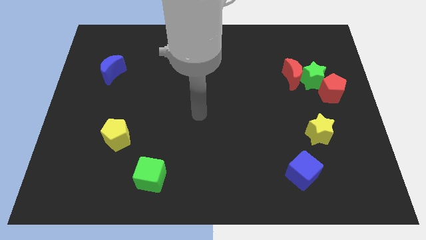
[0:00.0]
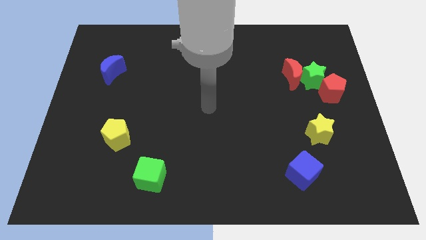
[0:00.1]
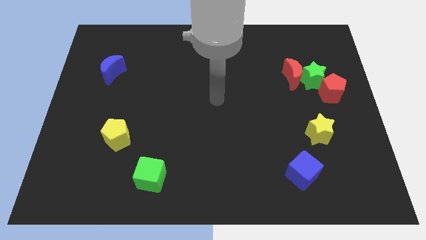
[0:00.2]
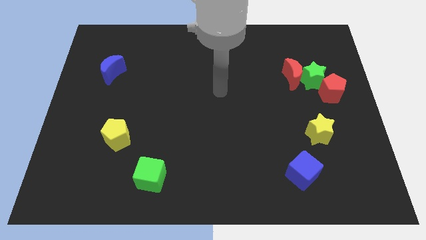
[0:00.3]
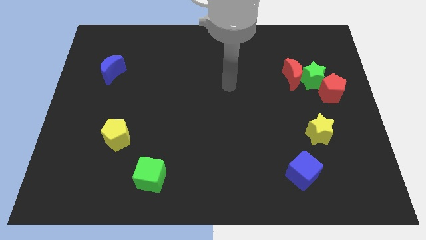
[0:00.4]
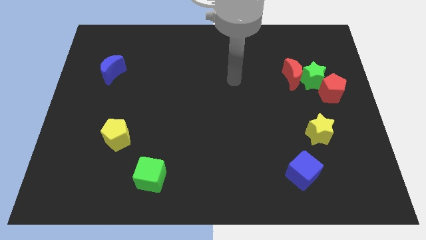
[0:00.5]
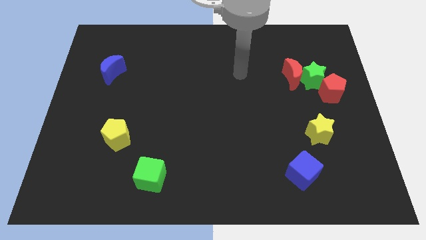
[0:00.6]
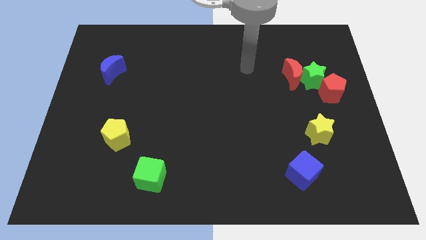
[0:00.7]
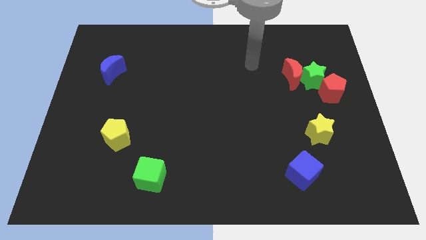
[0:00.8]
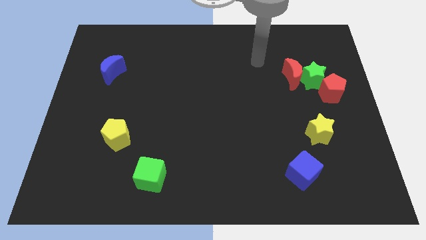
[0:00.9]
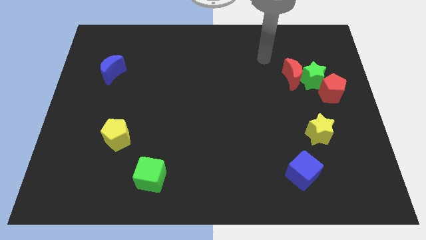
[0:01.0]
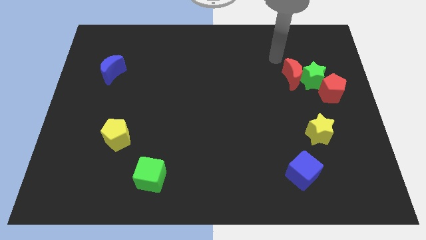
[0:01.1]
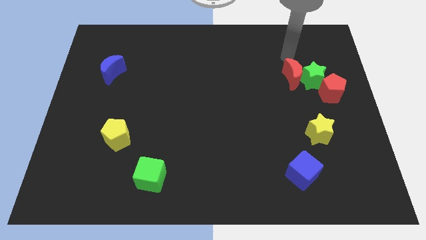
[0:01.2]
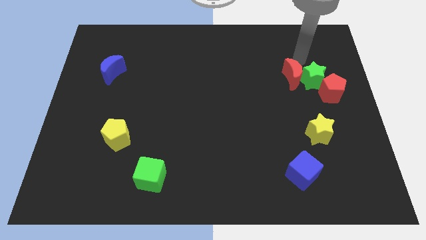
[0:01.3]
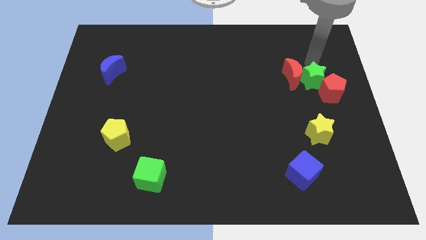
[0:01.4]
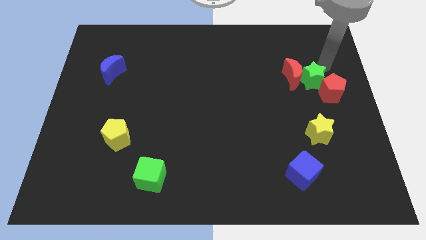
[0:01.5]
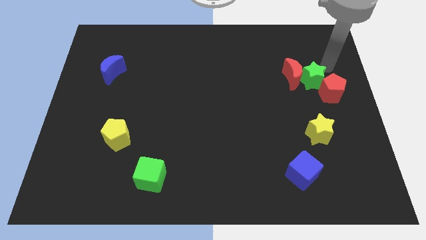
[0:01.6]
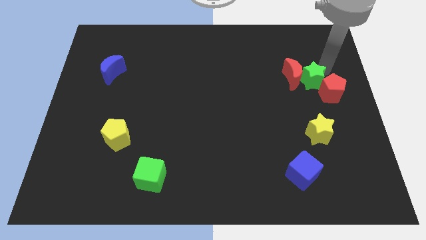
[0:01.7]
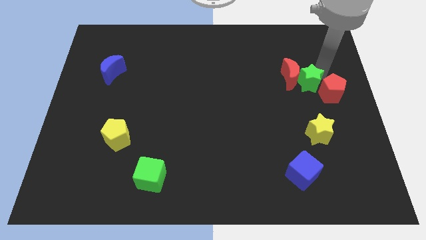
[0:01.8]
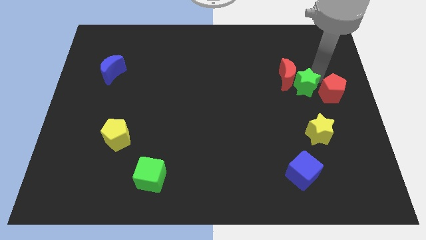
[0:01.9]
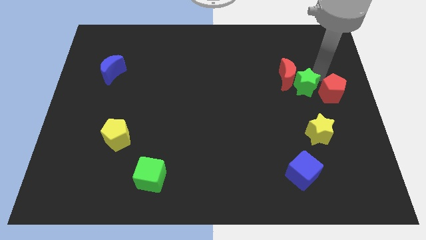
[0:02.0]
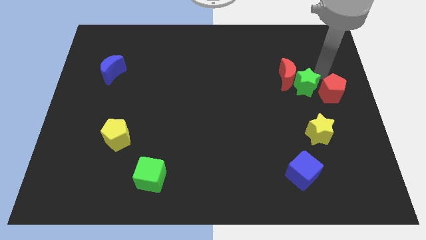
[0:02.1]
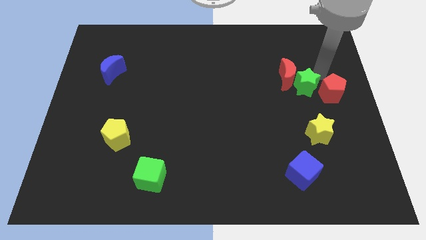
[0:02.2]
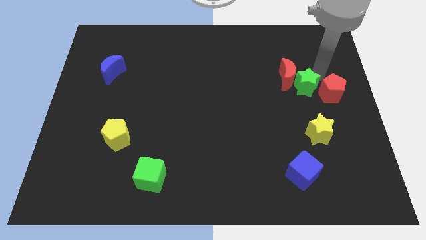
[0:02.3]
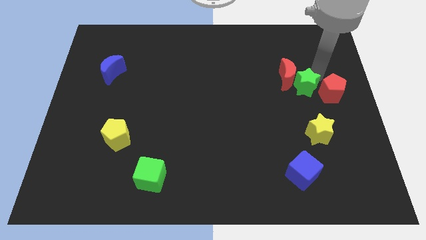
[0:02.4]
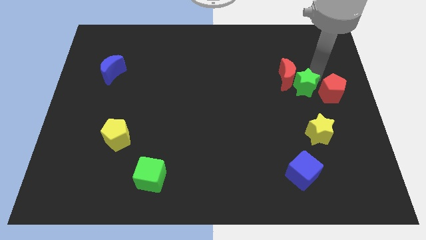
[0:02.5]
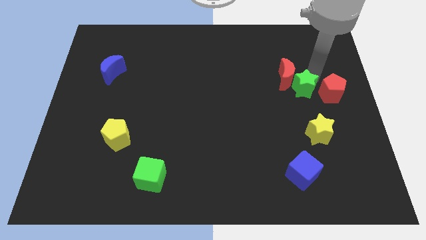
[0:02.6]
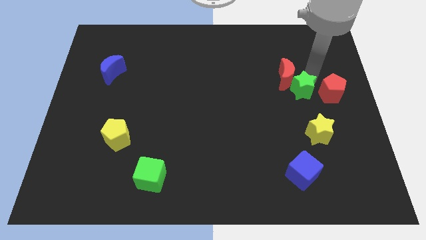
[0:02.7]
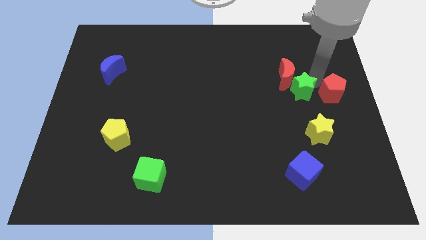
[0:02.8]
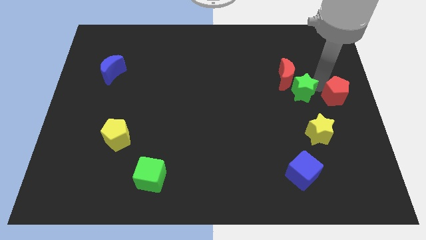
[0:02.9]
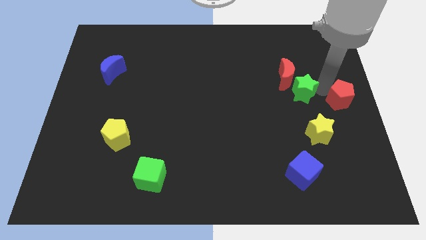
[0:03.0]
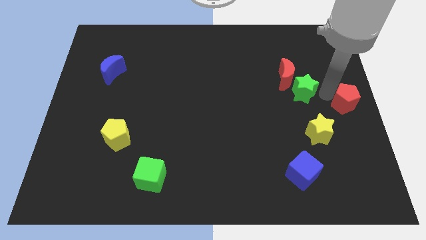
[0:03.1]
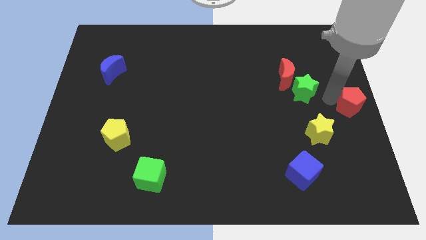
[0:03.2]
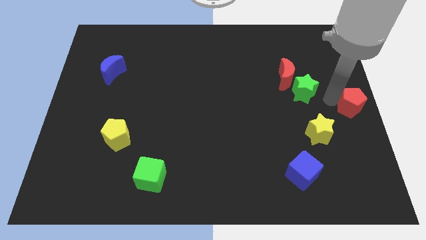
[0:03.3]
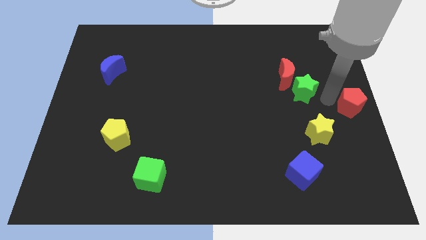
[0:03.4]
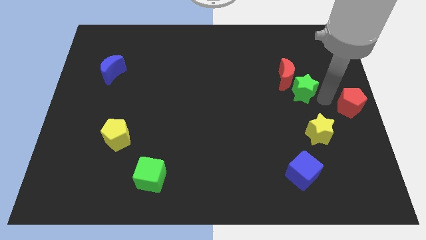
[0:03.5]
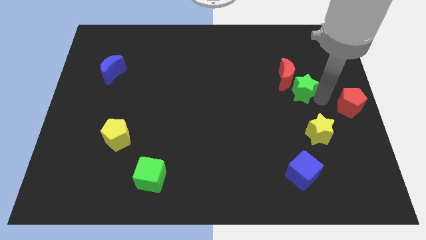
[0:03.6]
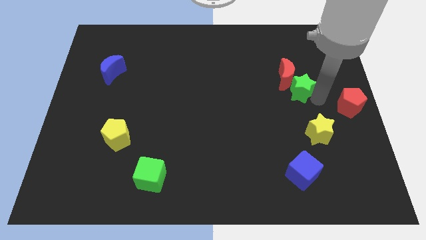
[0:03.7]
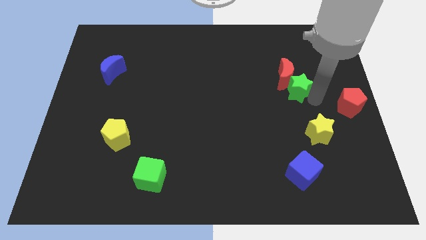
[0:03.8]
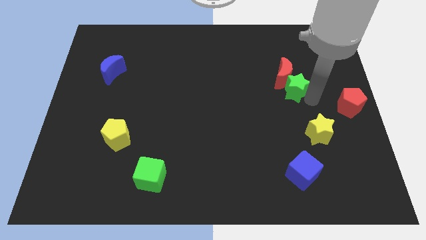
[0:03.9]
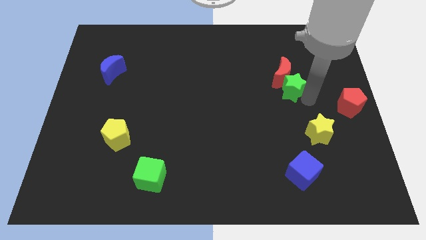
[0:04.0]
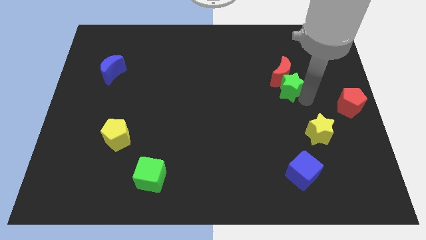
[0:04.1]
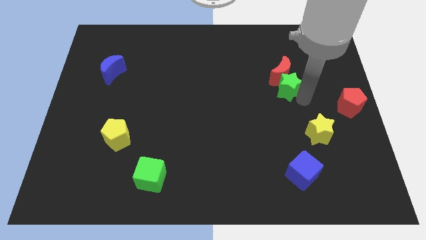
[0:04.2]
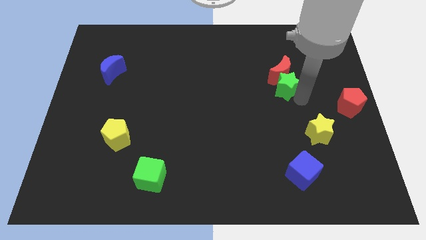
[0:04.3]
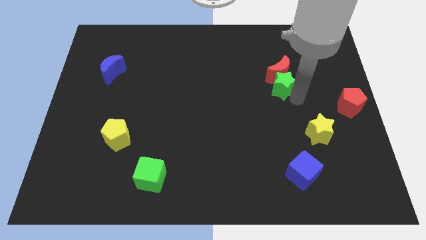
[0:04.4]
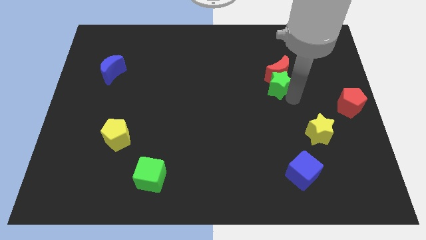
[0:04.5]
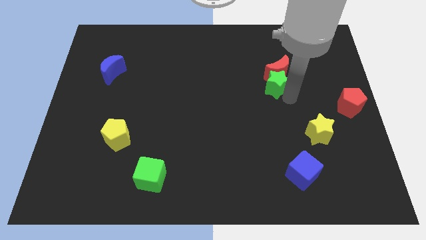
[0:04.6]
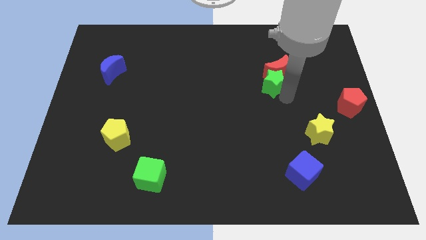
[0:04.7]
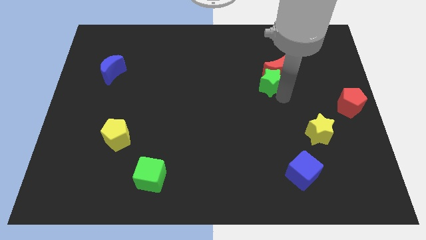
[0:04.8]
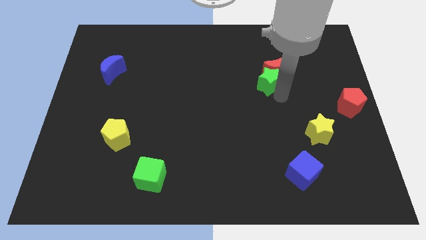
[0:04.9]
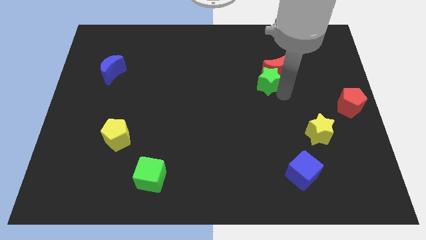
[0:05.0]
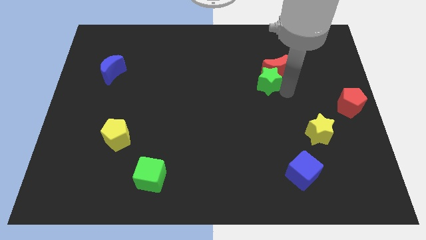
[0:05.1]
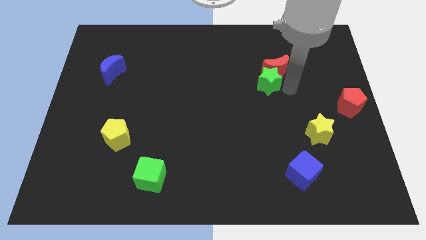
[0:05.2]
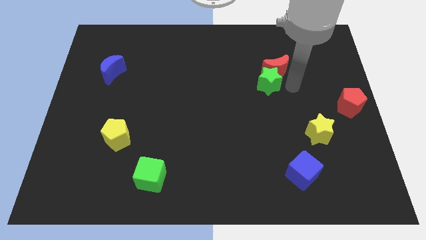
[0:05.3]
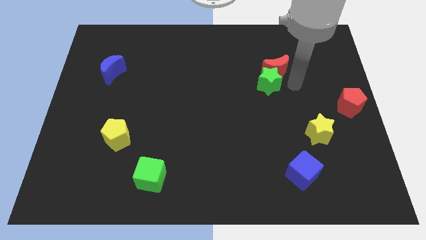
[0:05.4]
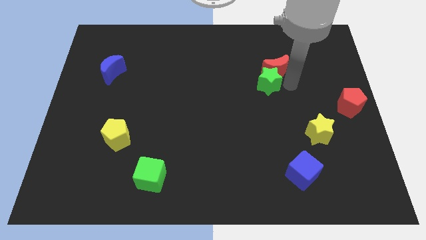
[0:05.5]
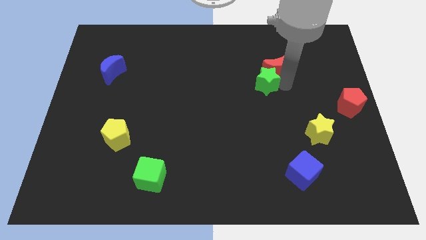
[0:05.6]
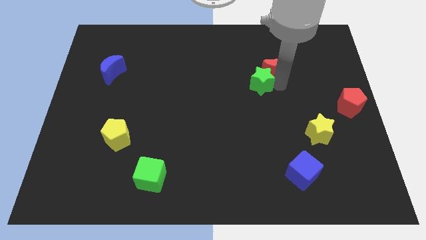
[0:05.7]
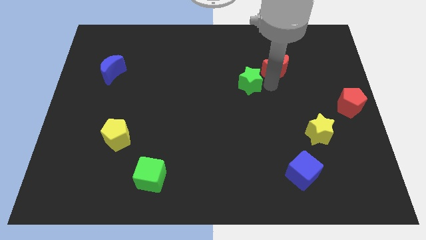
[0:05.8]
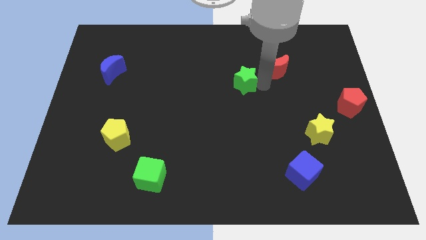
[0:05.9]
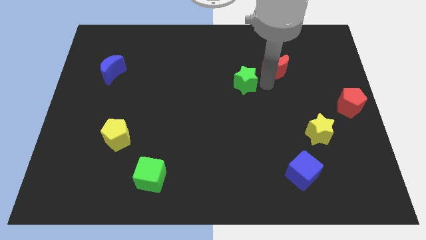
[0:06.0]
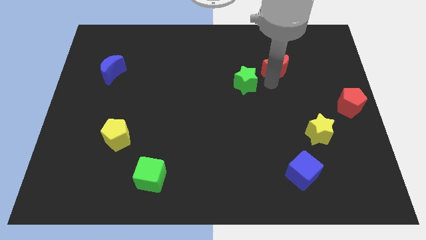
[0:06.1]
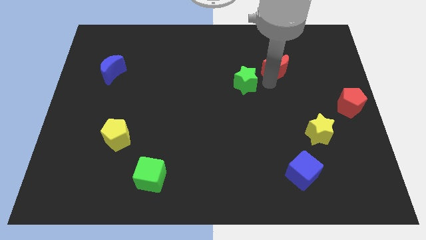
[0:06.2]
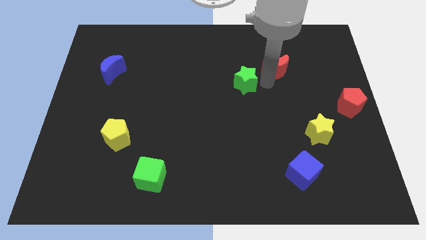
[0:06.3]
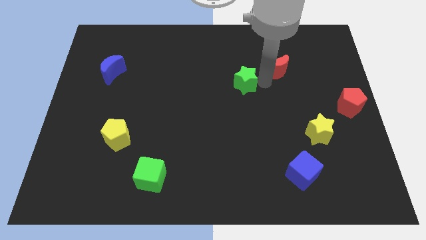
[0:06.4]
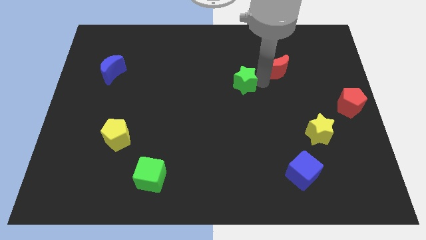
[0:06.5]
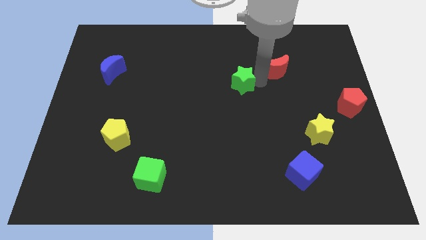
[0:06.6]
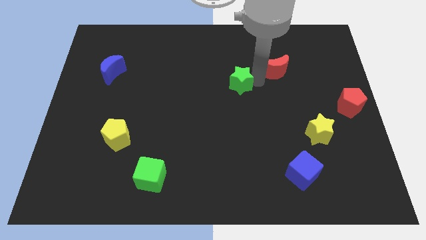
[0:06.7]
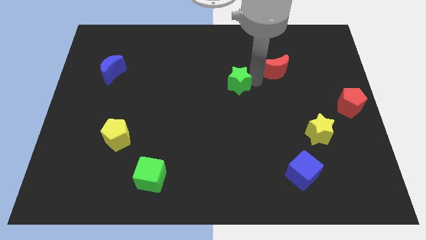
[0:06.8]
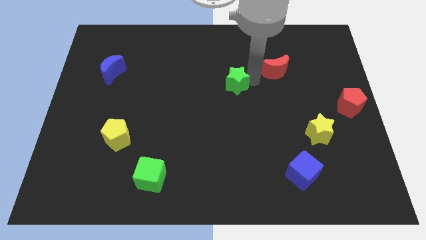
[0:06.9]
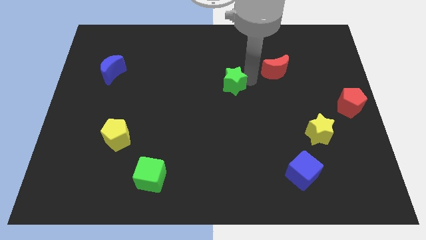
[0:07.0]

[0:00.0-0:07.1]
push the green star to the left

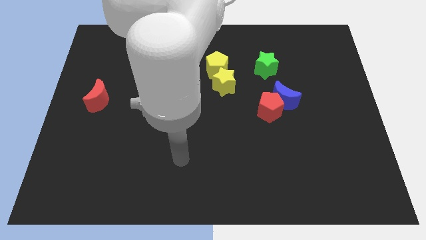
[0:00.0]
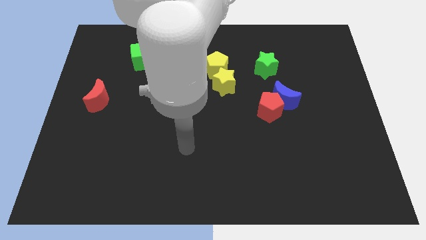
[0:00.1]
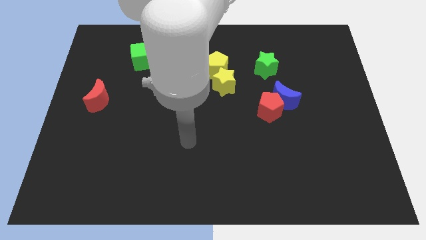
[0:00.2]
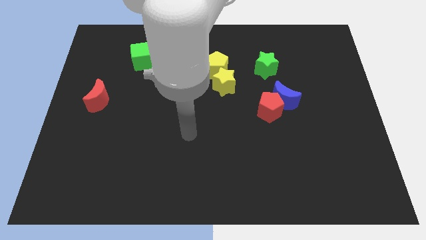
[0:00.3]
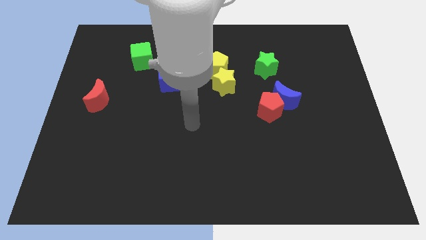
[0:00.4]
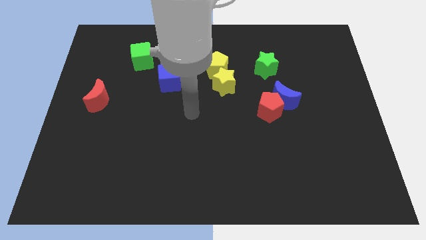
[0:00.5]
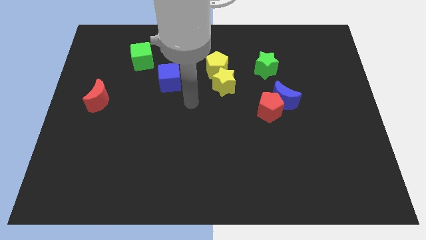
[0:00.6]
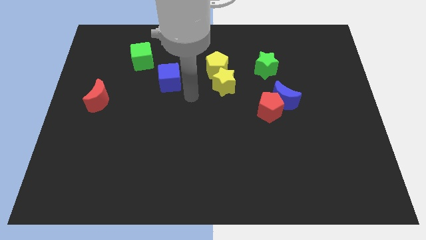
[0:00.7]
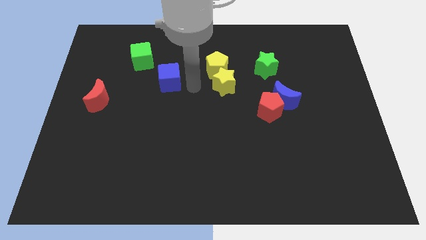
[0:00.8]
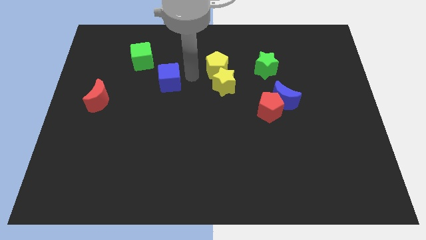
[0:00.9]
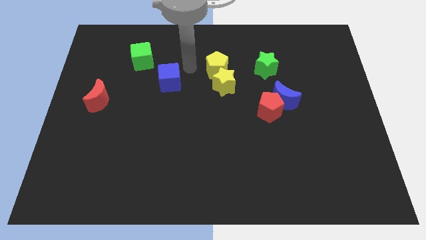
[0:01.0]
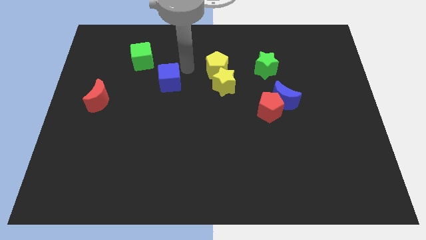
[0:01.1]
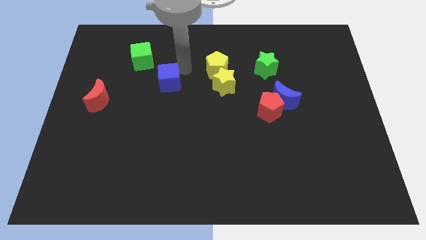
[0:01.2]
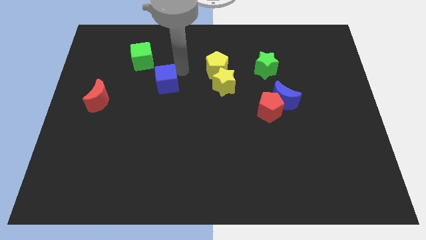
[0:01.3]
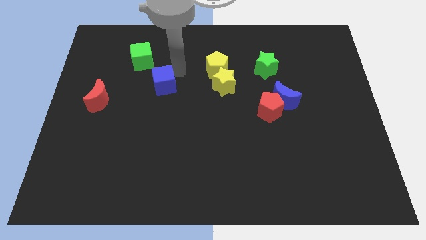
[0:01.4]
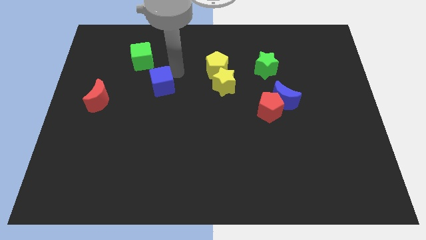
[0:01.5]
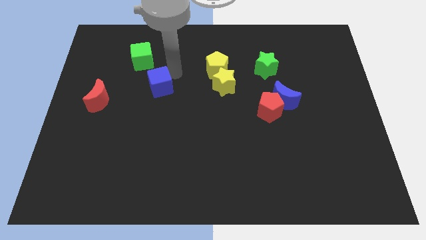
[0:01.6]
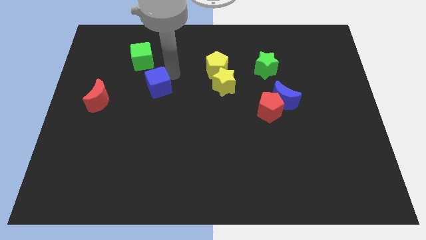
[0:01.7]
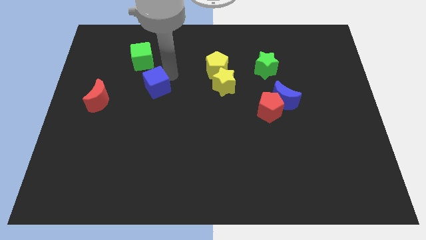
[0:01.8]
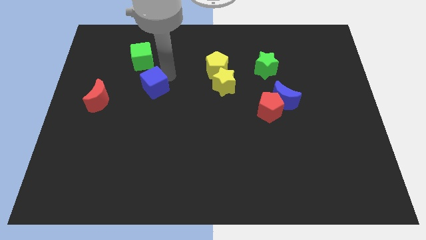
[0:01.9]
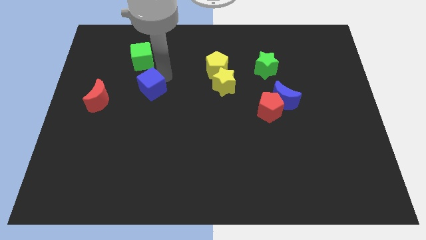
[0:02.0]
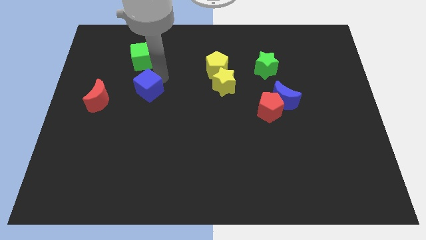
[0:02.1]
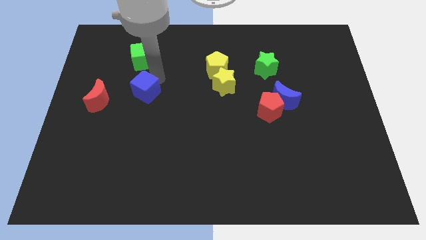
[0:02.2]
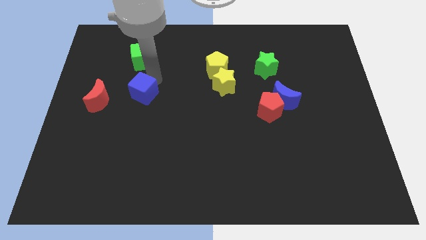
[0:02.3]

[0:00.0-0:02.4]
push the blue cube down and then to the left slightly
